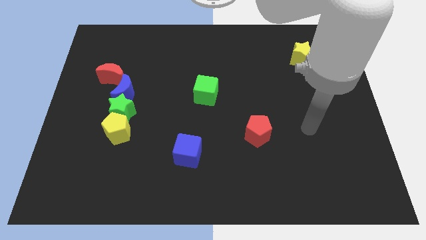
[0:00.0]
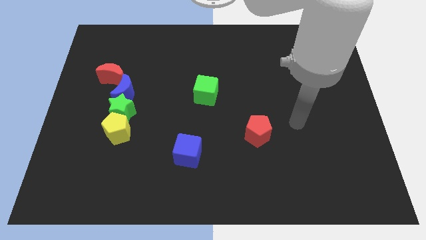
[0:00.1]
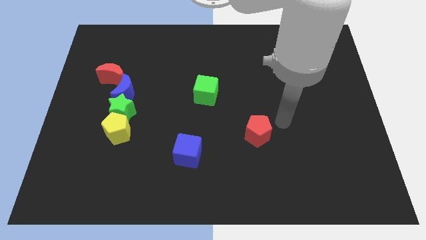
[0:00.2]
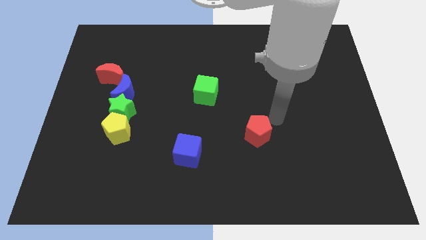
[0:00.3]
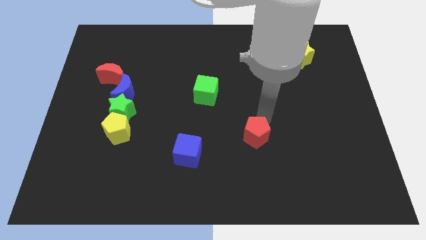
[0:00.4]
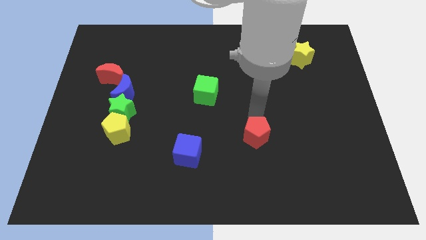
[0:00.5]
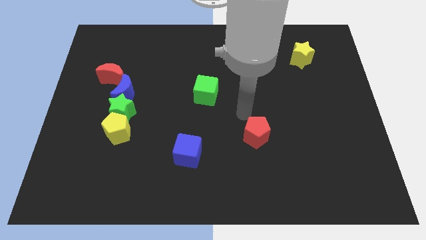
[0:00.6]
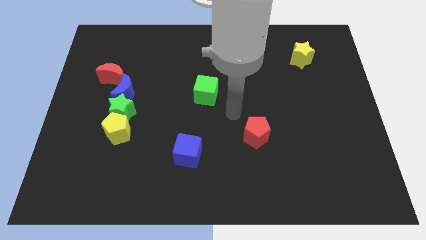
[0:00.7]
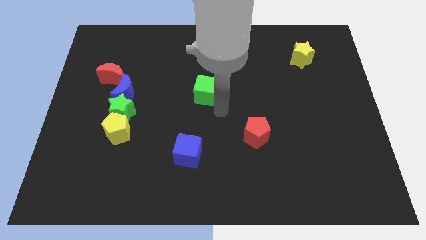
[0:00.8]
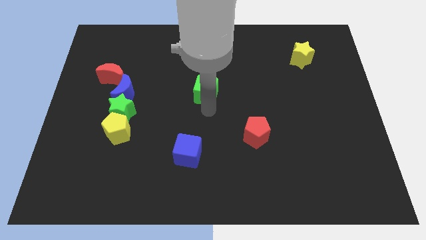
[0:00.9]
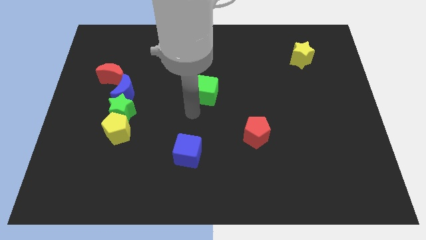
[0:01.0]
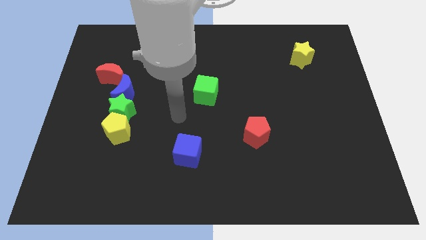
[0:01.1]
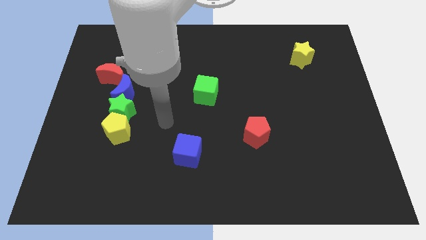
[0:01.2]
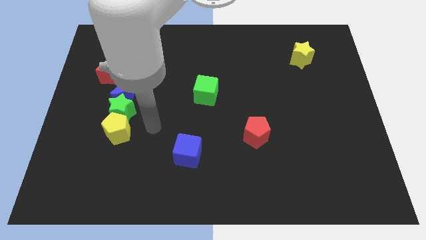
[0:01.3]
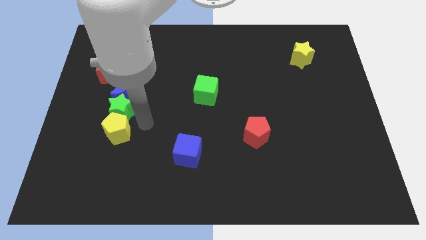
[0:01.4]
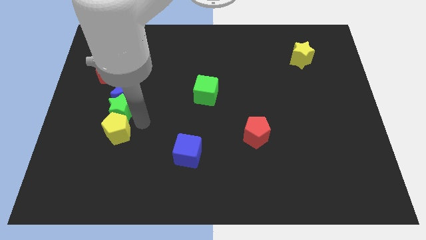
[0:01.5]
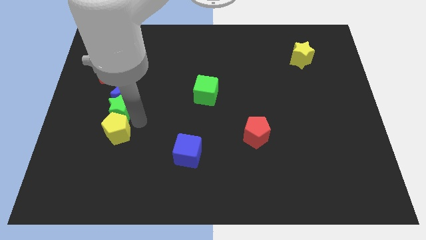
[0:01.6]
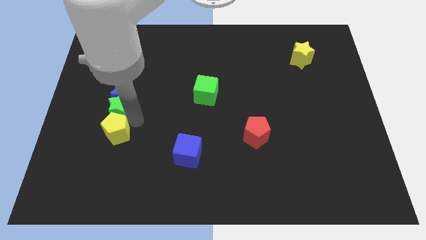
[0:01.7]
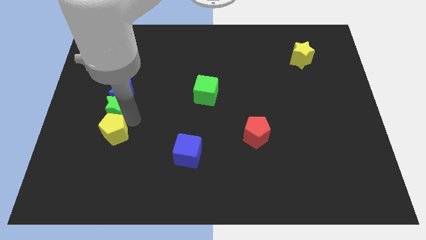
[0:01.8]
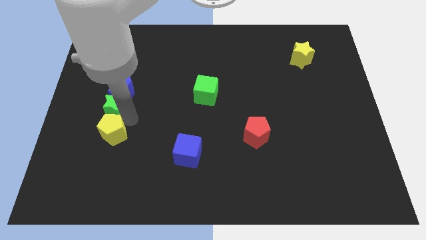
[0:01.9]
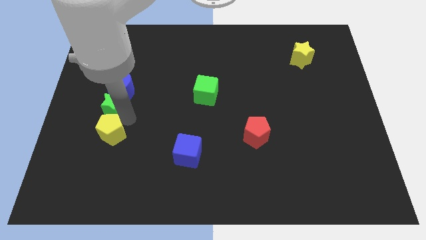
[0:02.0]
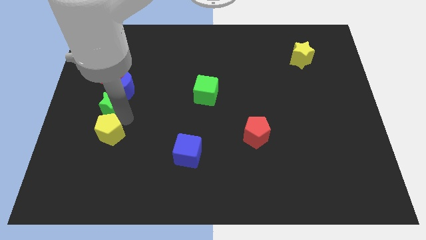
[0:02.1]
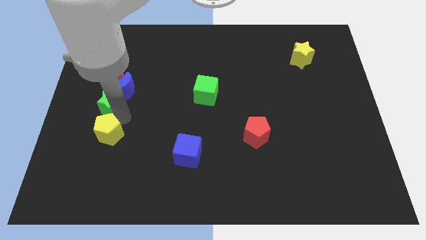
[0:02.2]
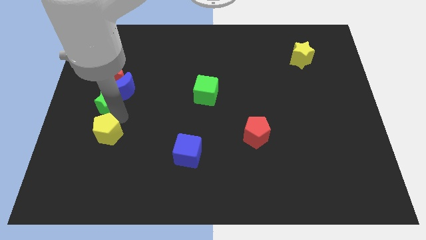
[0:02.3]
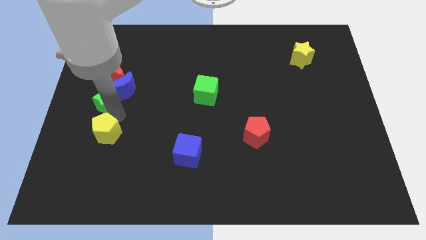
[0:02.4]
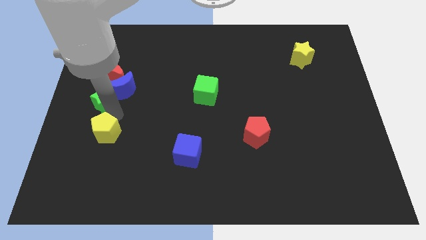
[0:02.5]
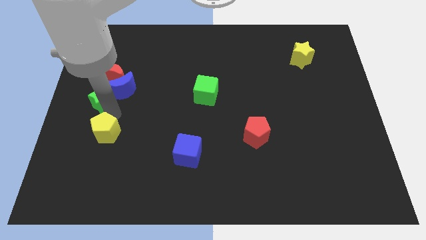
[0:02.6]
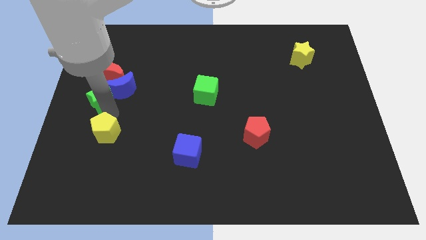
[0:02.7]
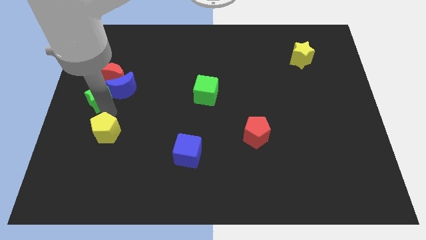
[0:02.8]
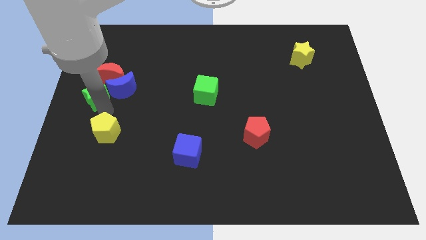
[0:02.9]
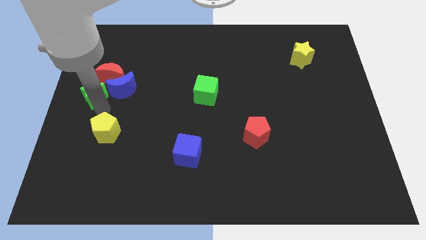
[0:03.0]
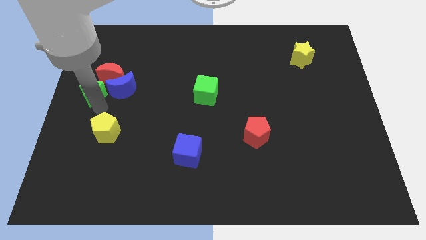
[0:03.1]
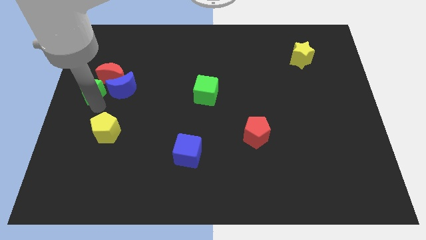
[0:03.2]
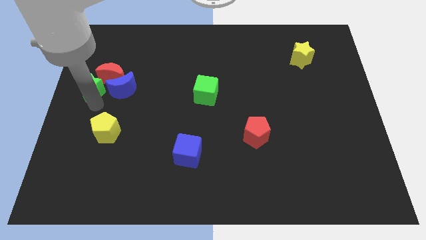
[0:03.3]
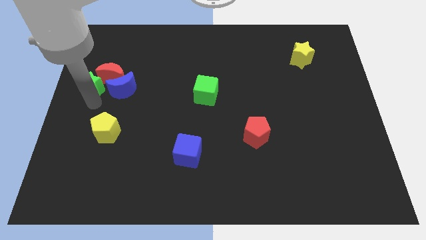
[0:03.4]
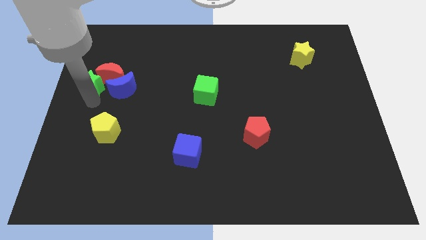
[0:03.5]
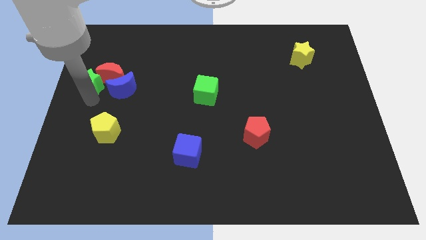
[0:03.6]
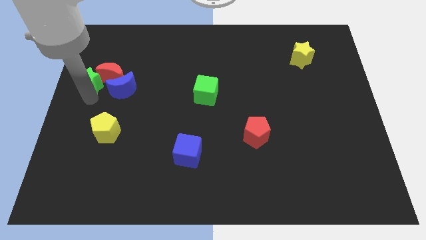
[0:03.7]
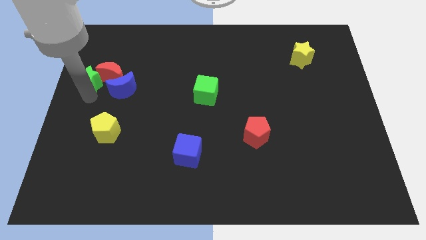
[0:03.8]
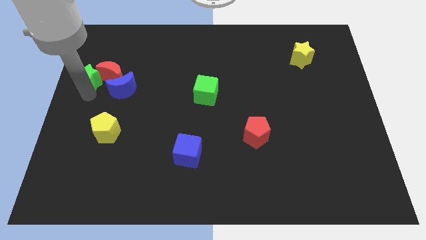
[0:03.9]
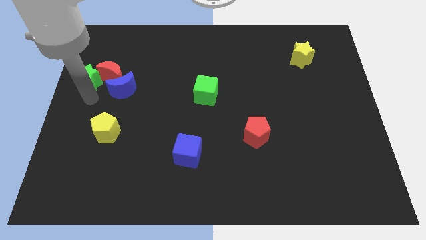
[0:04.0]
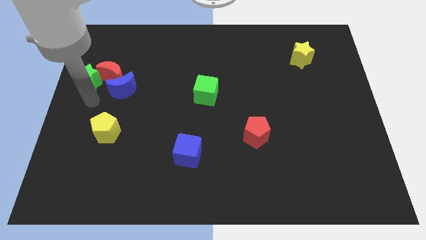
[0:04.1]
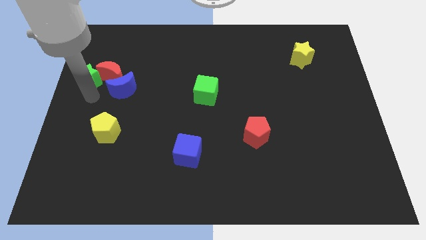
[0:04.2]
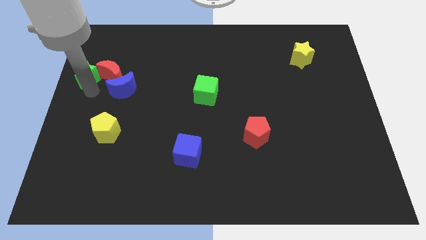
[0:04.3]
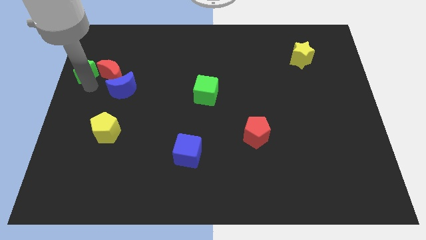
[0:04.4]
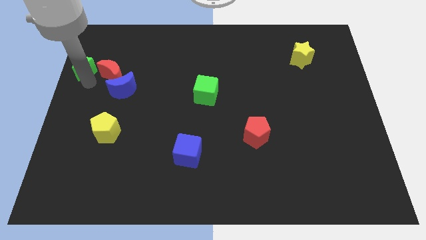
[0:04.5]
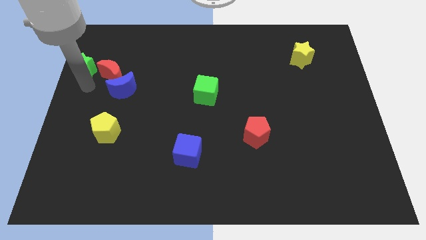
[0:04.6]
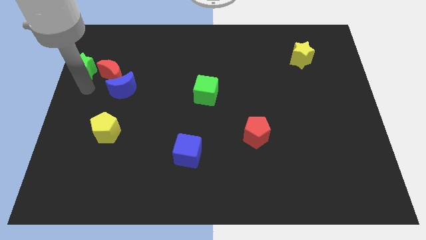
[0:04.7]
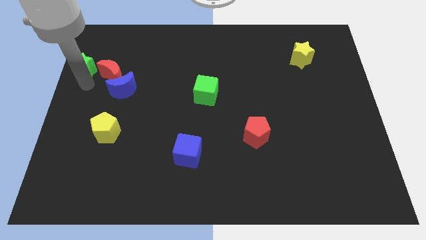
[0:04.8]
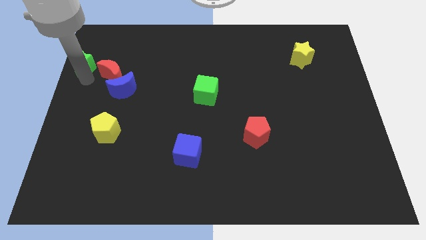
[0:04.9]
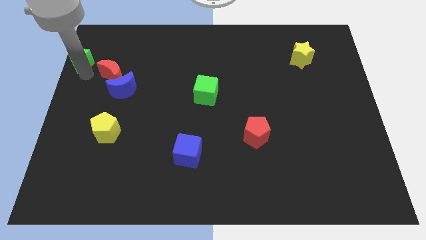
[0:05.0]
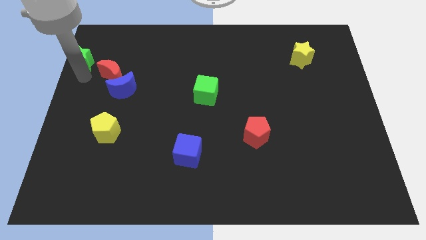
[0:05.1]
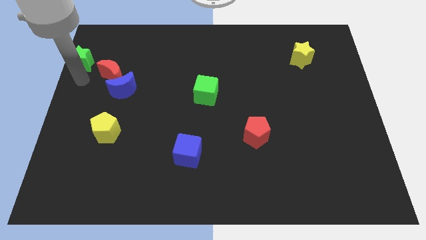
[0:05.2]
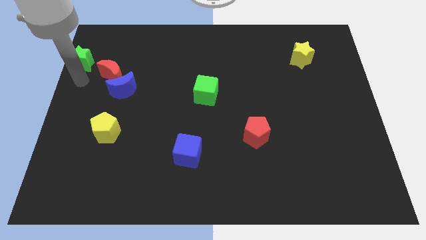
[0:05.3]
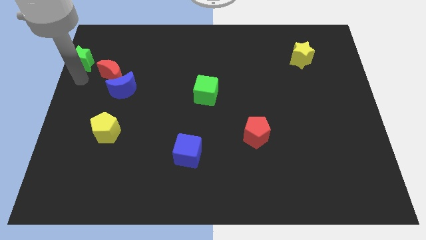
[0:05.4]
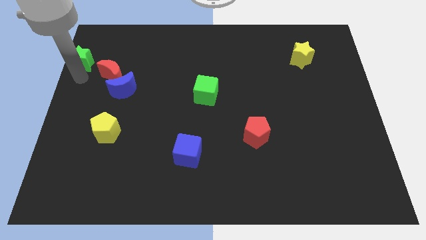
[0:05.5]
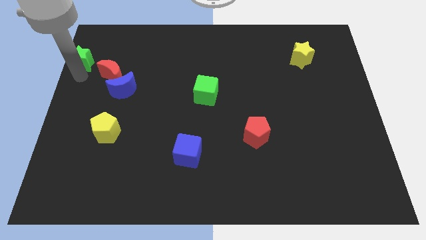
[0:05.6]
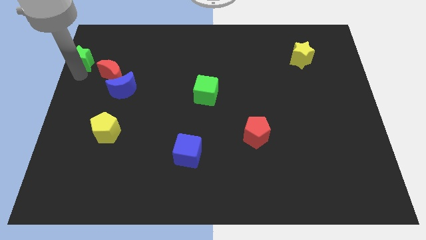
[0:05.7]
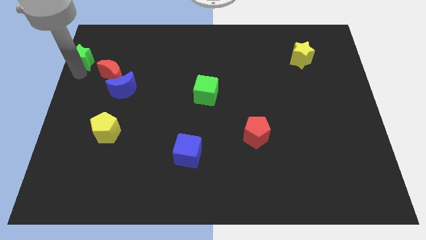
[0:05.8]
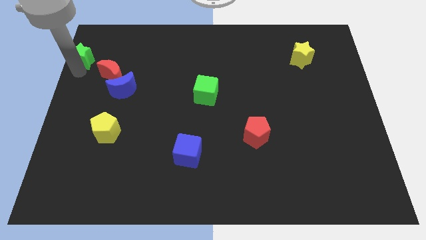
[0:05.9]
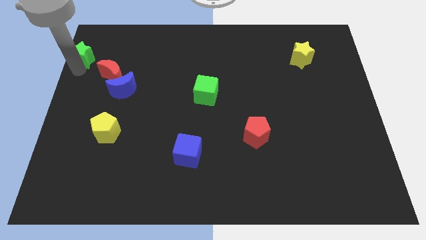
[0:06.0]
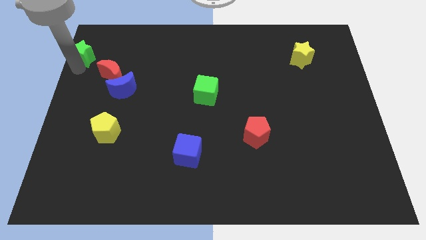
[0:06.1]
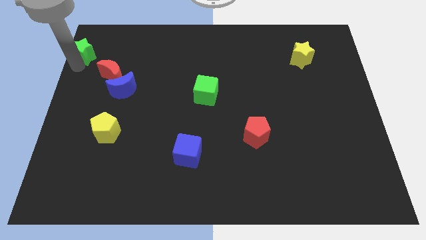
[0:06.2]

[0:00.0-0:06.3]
push the green star to the top left corner
